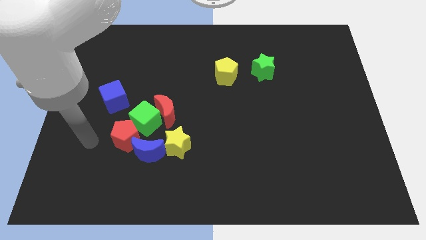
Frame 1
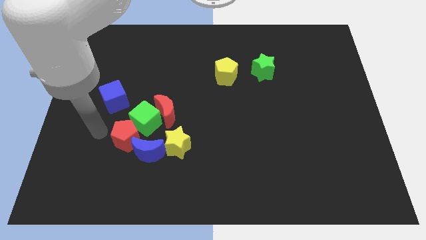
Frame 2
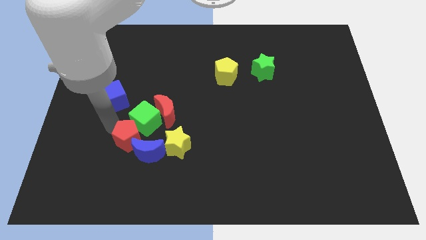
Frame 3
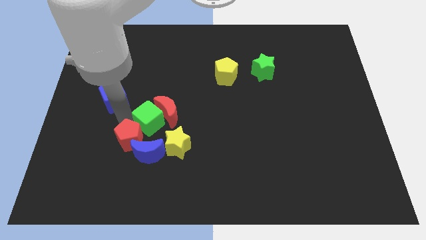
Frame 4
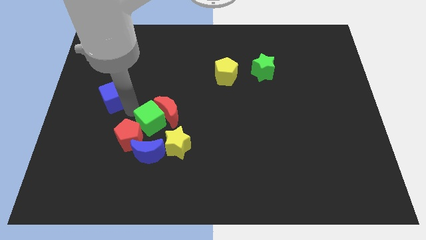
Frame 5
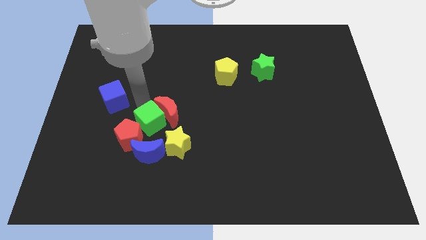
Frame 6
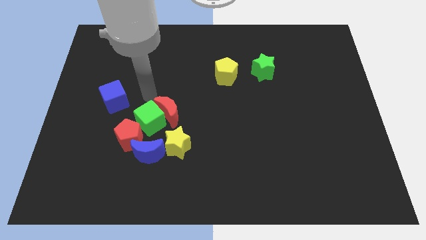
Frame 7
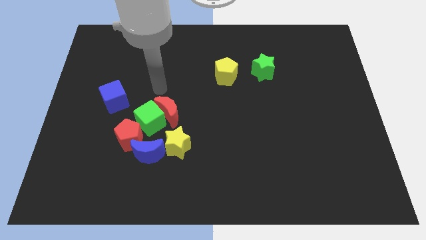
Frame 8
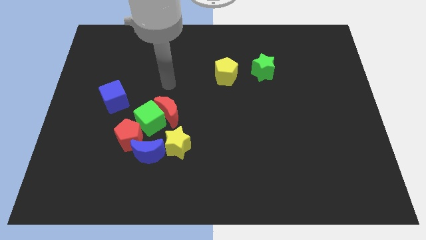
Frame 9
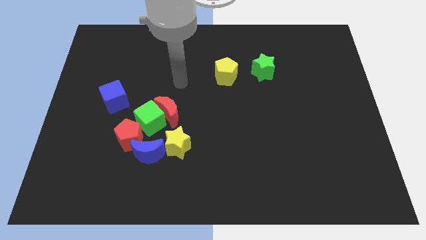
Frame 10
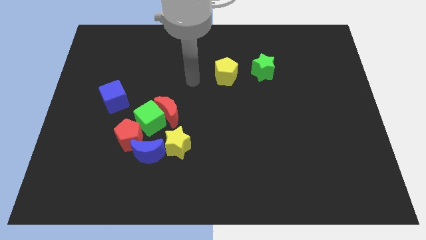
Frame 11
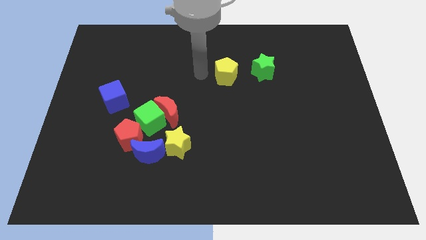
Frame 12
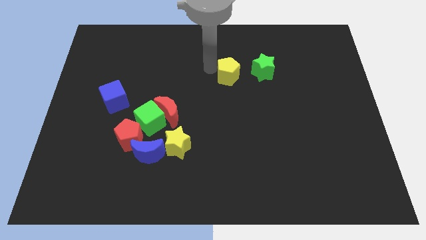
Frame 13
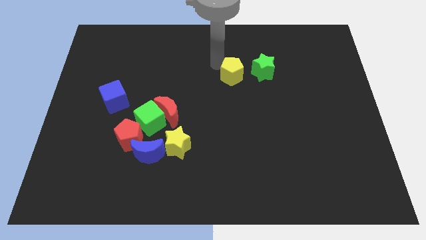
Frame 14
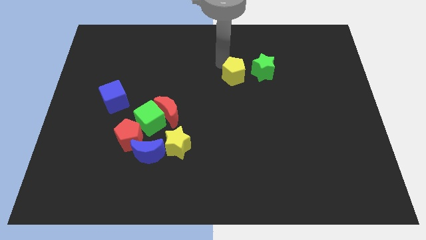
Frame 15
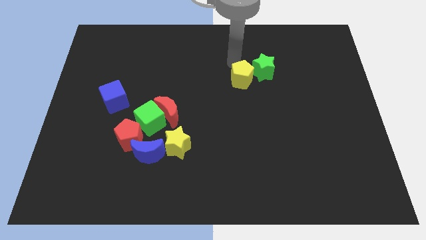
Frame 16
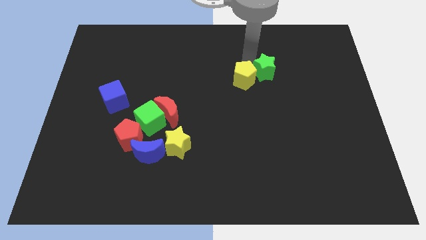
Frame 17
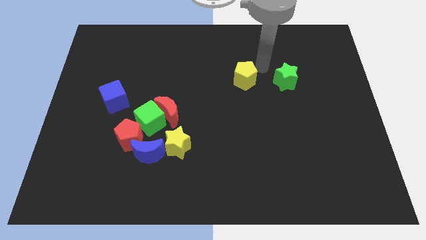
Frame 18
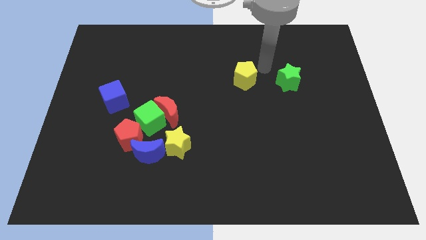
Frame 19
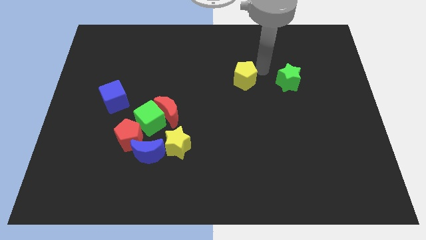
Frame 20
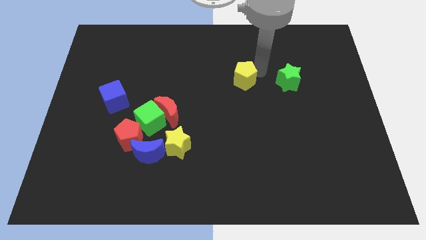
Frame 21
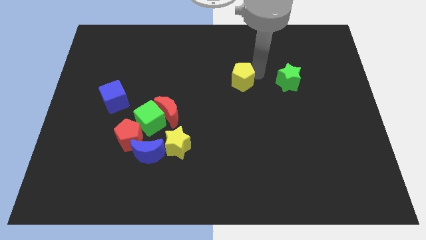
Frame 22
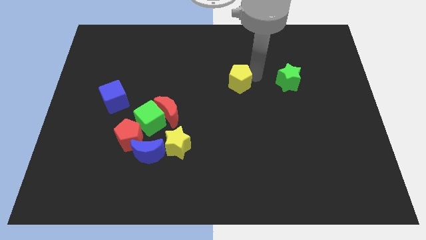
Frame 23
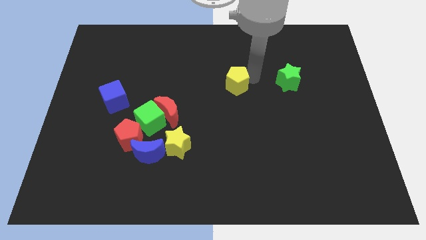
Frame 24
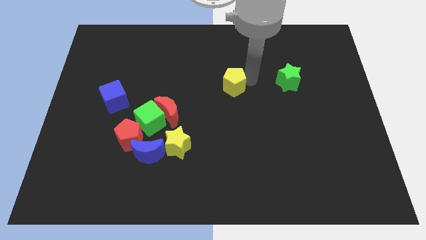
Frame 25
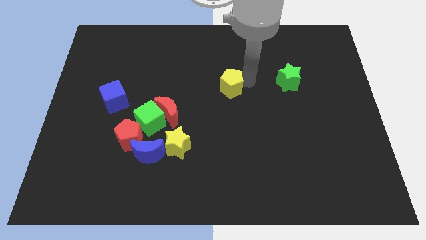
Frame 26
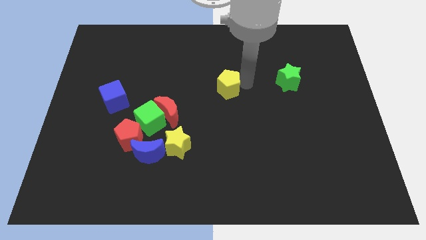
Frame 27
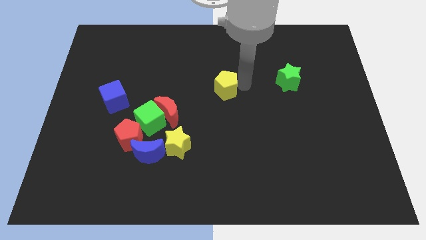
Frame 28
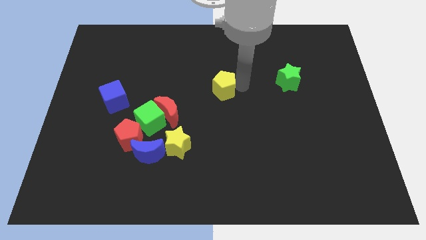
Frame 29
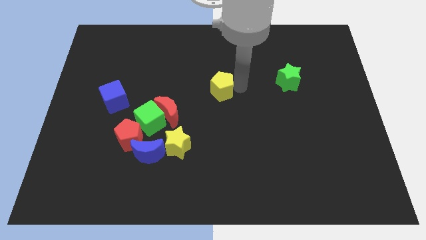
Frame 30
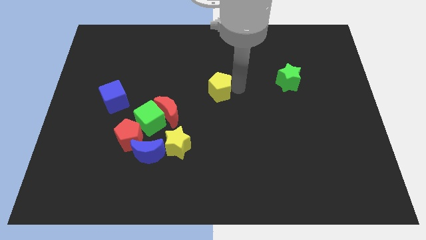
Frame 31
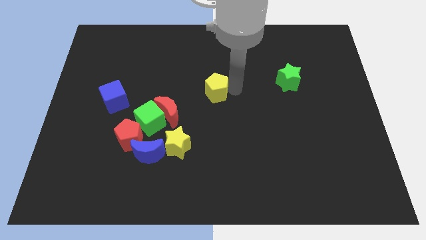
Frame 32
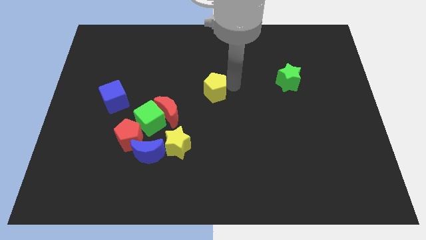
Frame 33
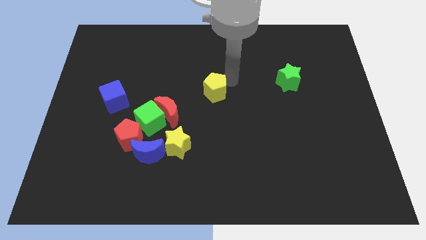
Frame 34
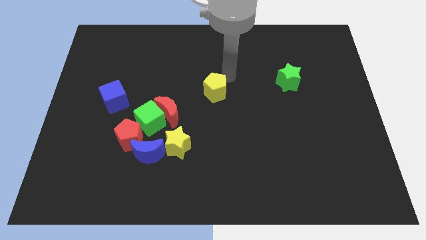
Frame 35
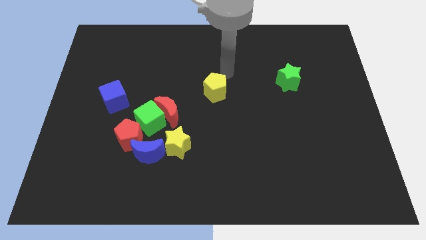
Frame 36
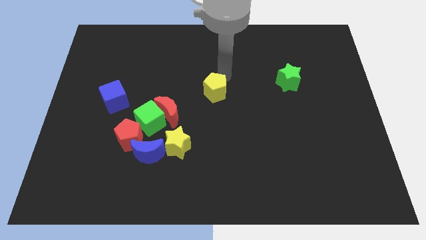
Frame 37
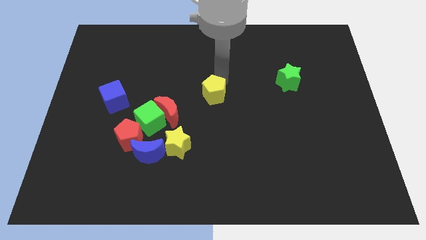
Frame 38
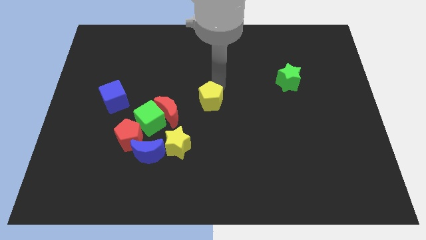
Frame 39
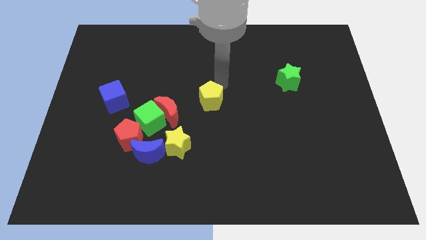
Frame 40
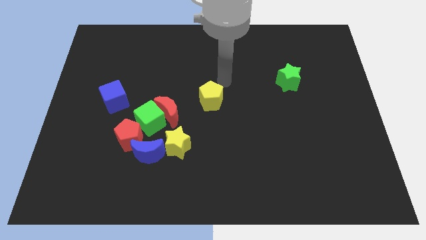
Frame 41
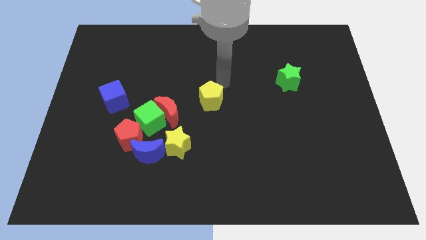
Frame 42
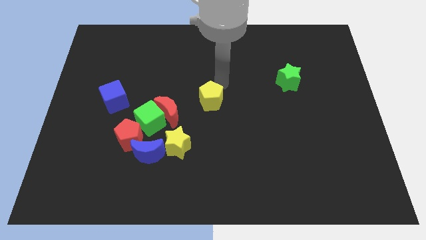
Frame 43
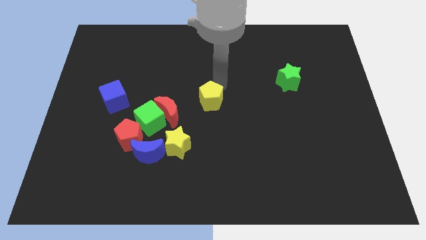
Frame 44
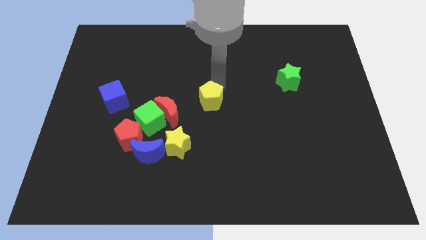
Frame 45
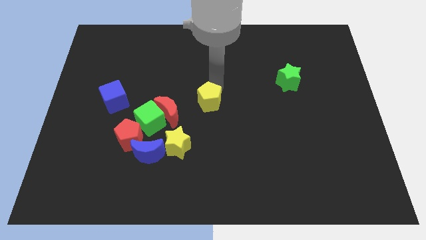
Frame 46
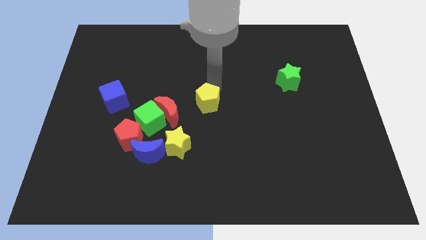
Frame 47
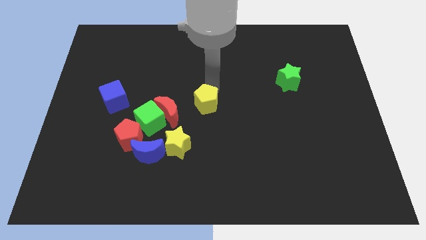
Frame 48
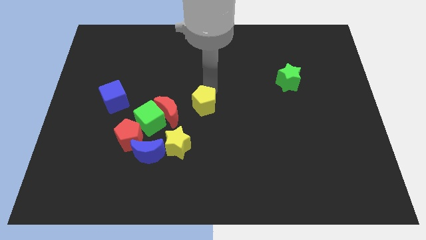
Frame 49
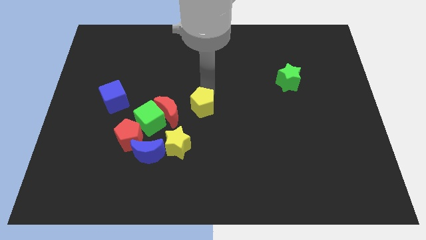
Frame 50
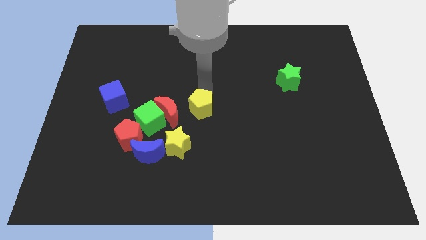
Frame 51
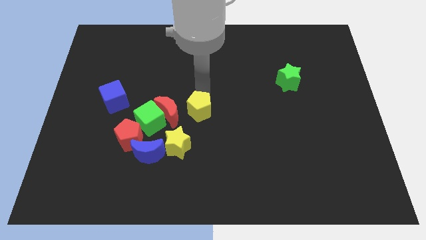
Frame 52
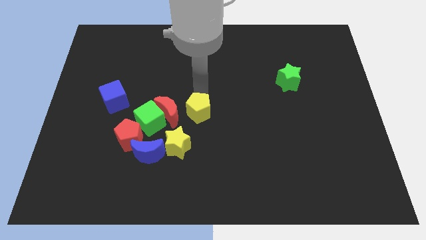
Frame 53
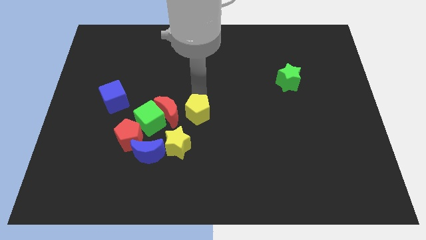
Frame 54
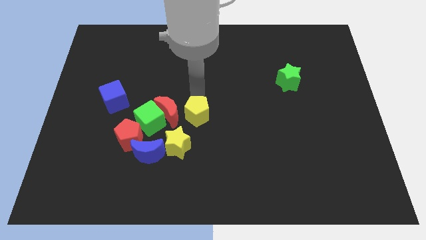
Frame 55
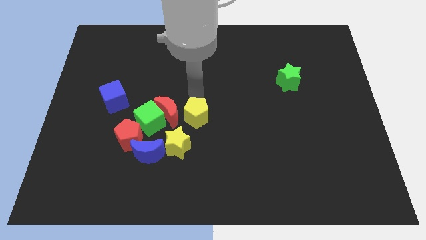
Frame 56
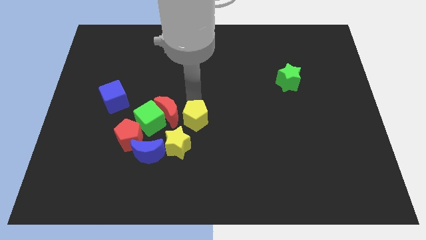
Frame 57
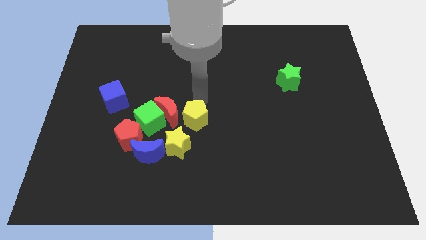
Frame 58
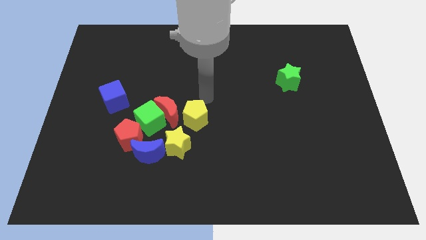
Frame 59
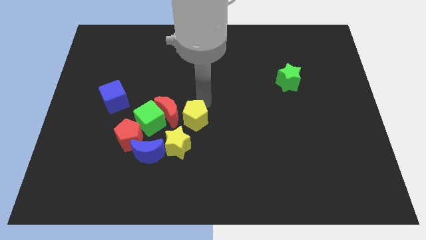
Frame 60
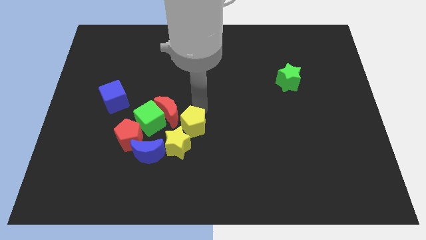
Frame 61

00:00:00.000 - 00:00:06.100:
slide the yellow pentagon next to the yellow star

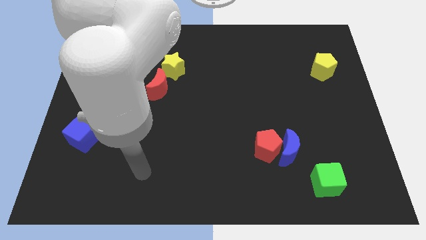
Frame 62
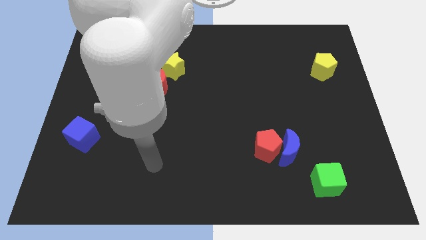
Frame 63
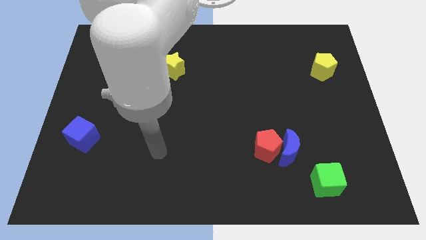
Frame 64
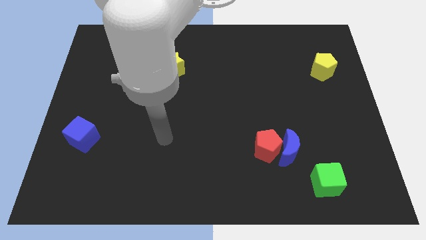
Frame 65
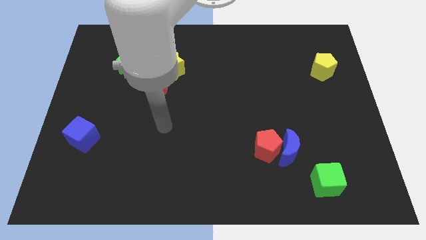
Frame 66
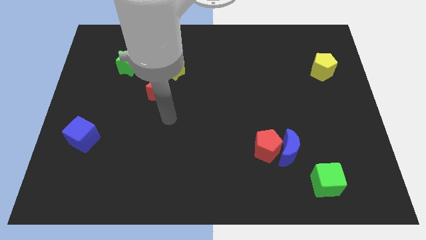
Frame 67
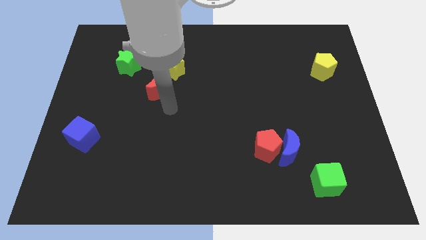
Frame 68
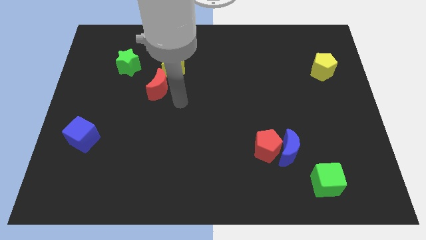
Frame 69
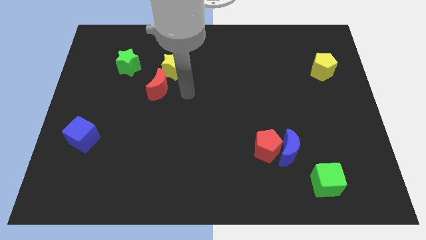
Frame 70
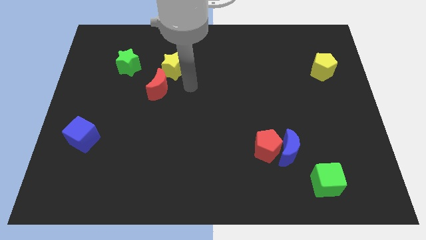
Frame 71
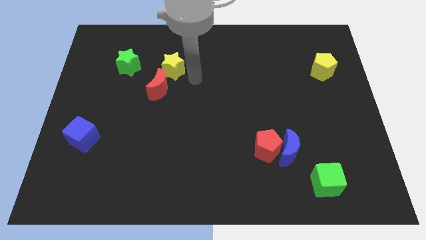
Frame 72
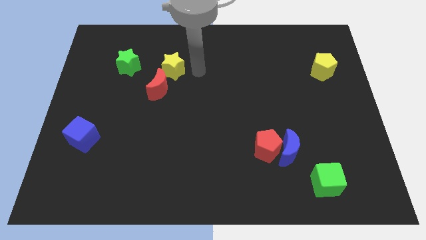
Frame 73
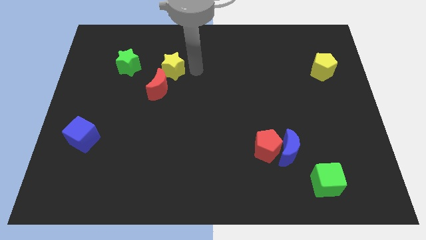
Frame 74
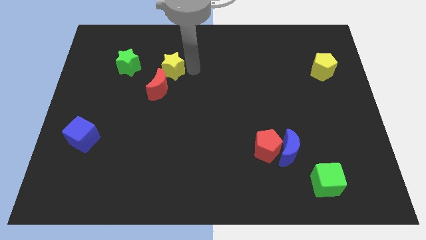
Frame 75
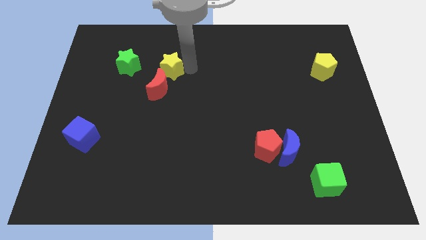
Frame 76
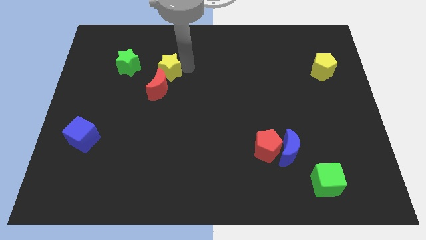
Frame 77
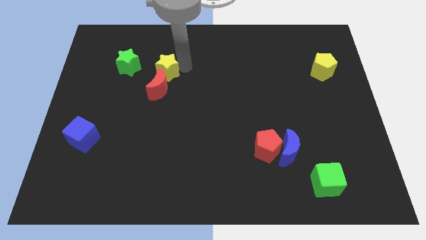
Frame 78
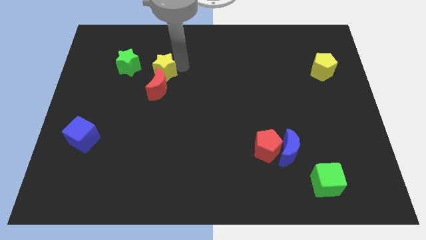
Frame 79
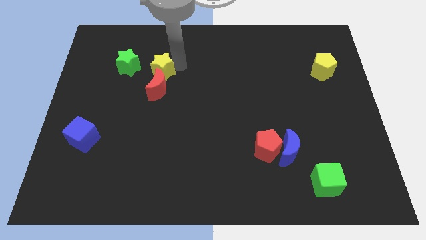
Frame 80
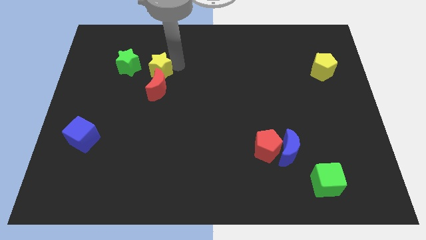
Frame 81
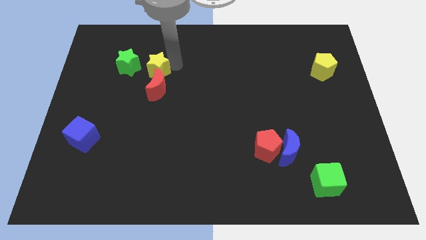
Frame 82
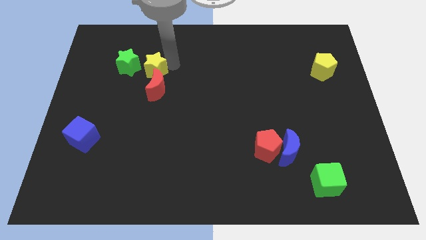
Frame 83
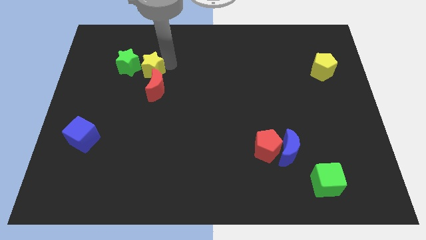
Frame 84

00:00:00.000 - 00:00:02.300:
slide the yellow star next to the green star
